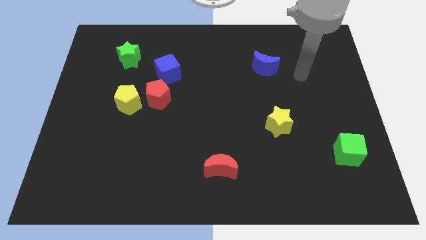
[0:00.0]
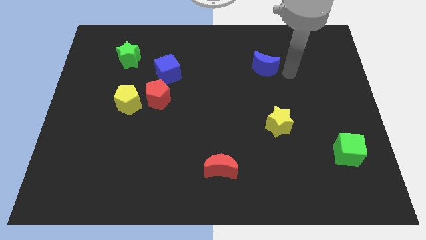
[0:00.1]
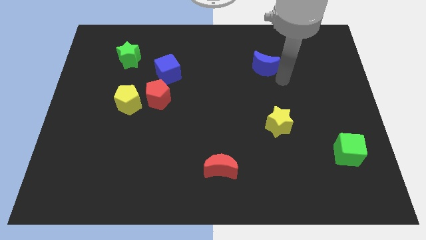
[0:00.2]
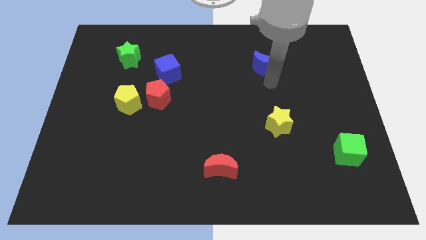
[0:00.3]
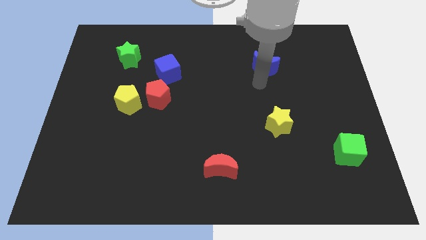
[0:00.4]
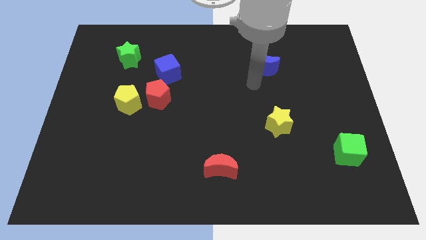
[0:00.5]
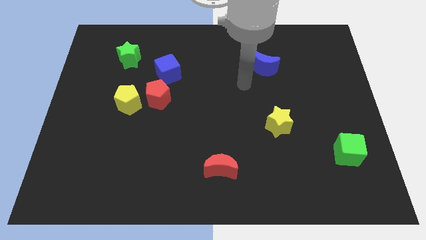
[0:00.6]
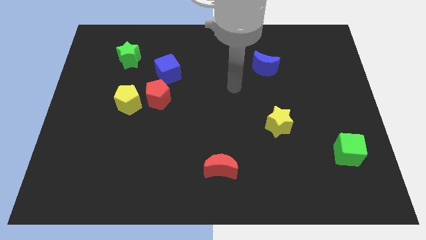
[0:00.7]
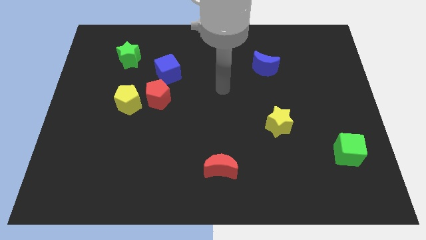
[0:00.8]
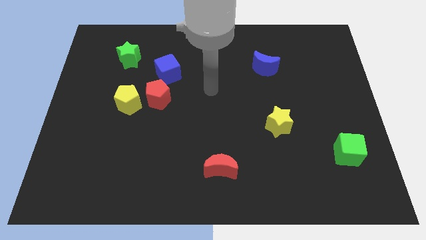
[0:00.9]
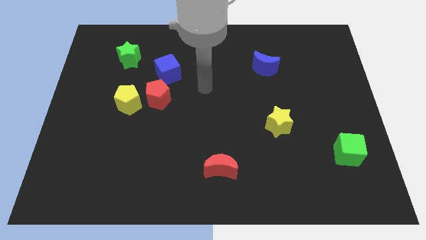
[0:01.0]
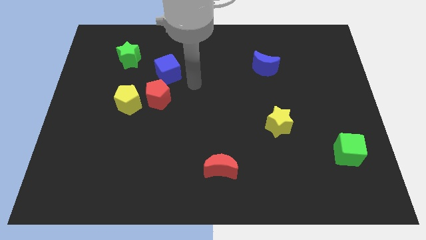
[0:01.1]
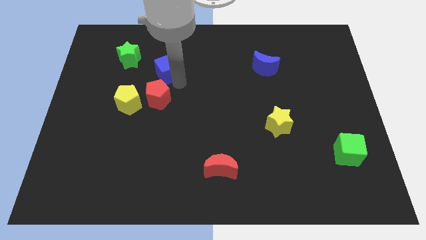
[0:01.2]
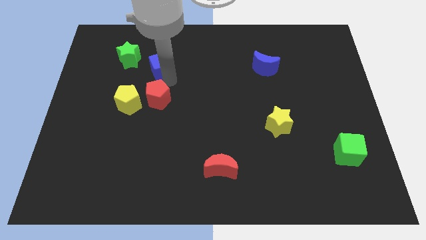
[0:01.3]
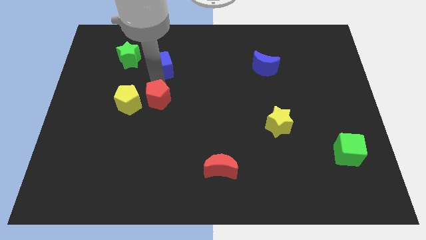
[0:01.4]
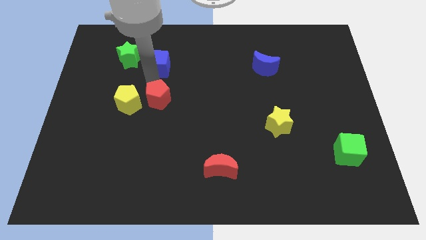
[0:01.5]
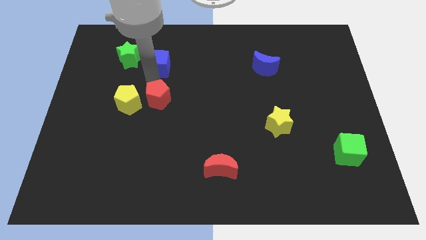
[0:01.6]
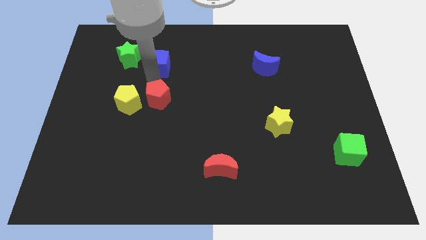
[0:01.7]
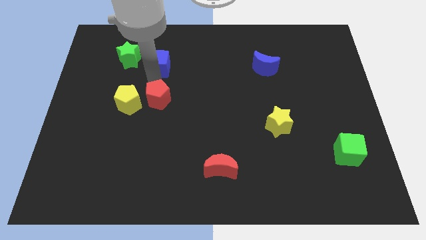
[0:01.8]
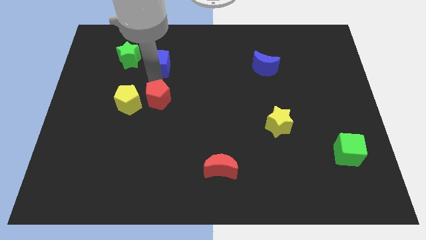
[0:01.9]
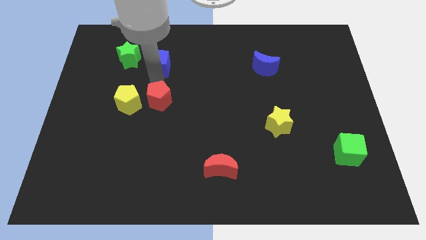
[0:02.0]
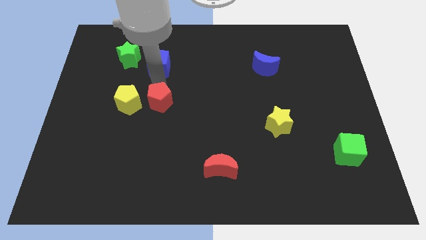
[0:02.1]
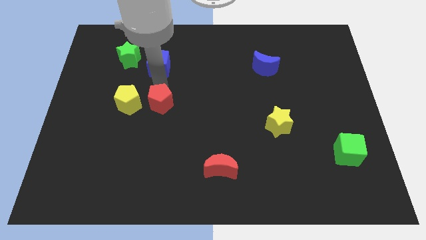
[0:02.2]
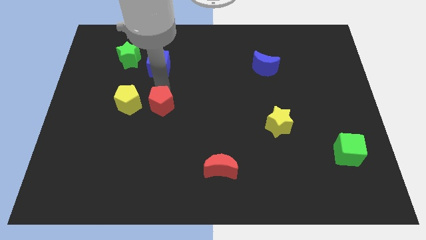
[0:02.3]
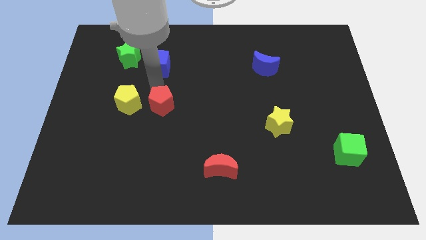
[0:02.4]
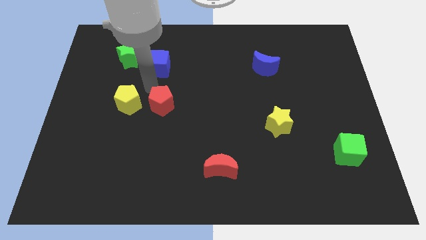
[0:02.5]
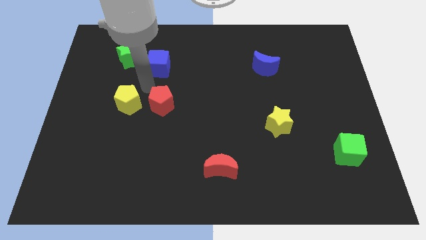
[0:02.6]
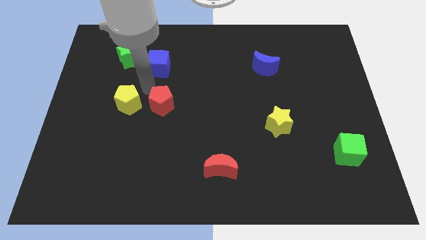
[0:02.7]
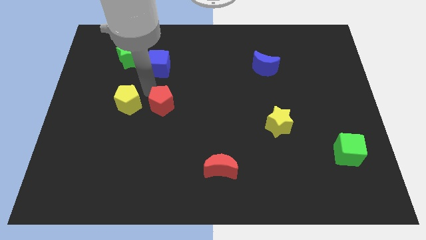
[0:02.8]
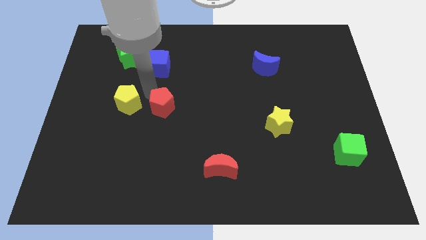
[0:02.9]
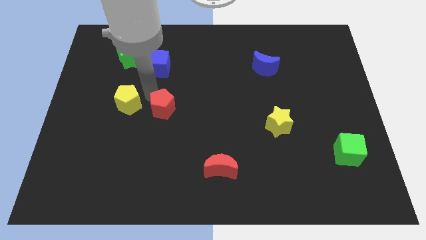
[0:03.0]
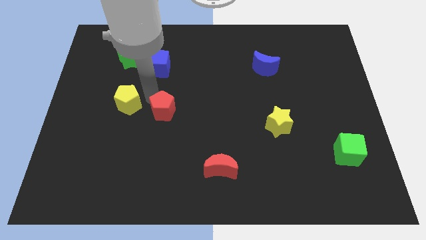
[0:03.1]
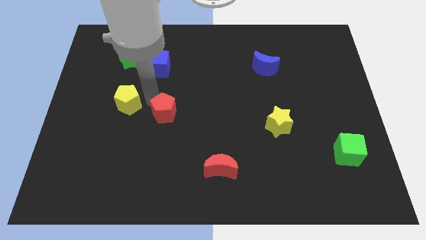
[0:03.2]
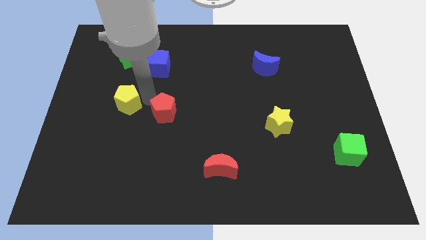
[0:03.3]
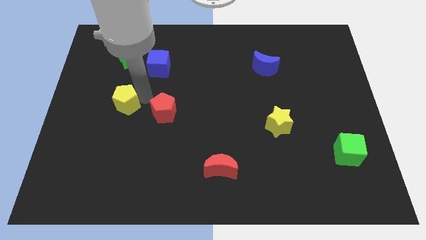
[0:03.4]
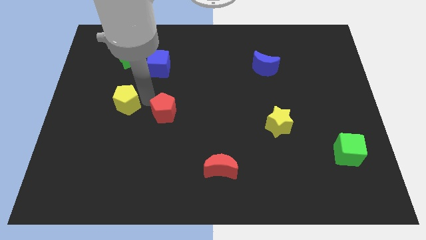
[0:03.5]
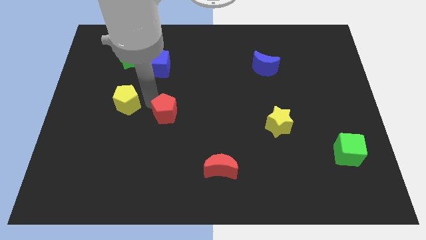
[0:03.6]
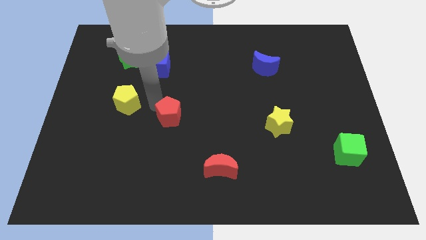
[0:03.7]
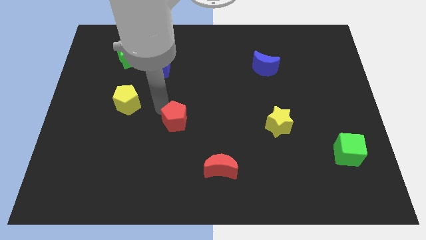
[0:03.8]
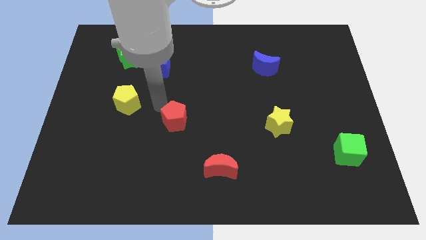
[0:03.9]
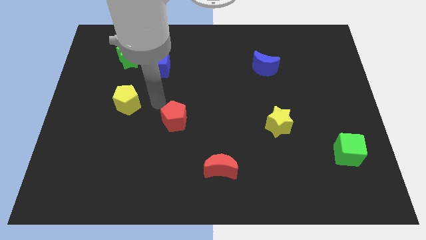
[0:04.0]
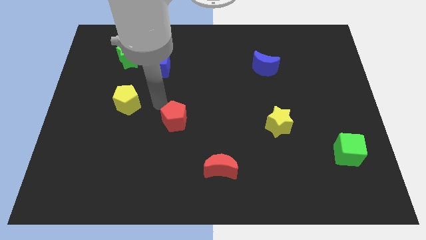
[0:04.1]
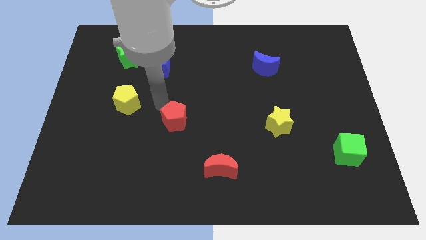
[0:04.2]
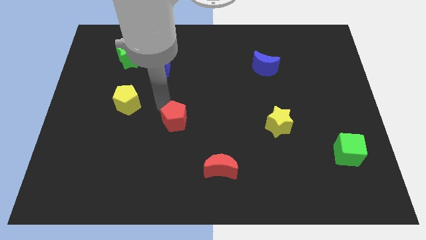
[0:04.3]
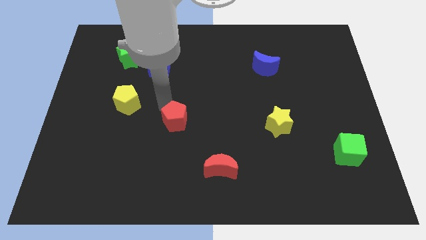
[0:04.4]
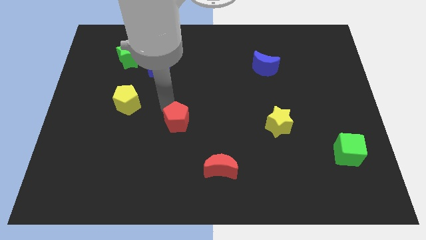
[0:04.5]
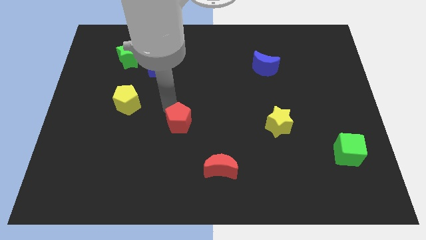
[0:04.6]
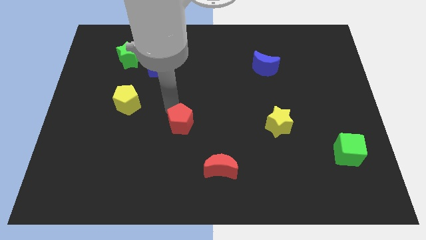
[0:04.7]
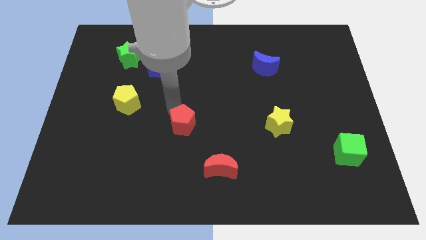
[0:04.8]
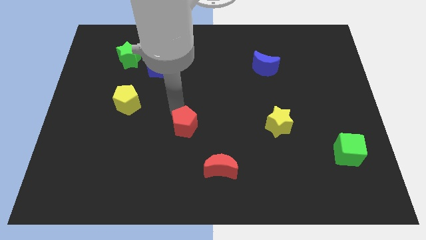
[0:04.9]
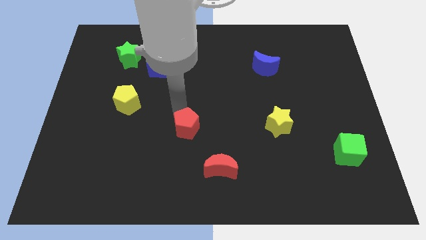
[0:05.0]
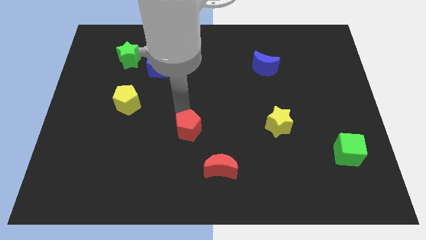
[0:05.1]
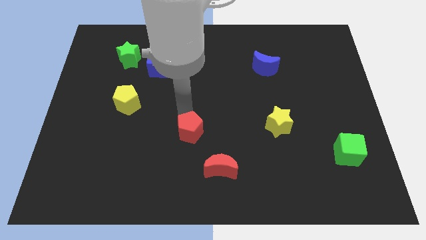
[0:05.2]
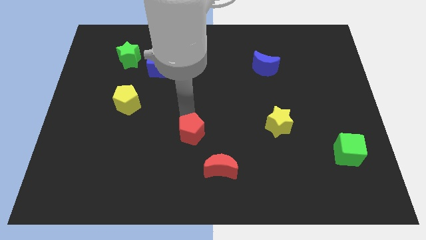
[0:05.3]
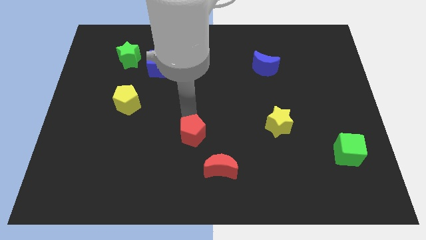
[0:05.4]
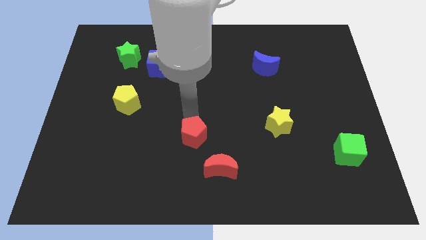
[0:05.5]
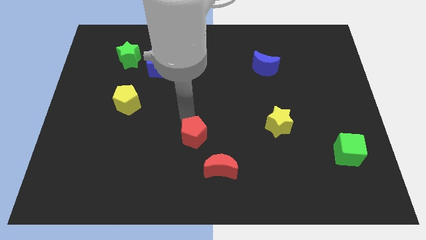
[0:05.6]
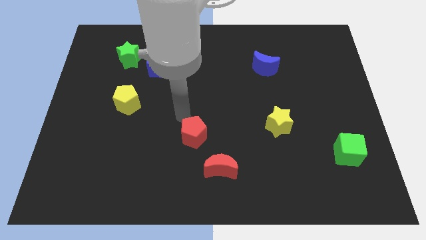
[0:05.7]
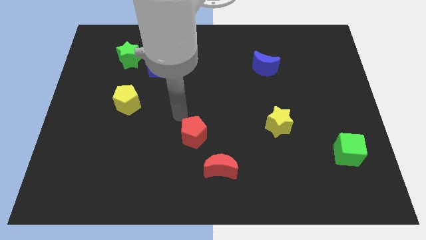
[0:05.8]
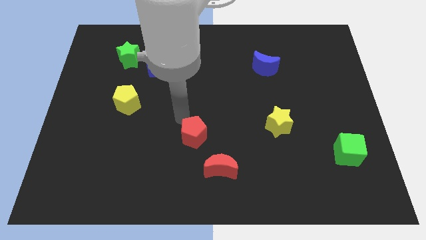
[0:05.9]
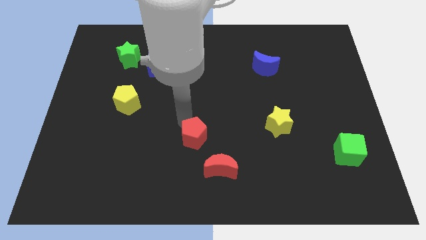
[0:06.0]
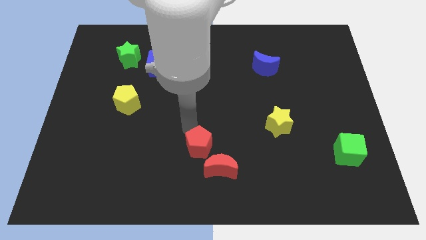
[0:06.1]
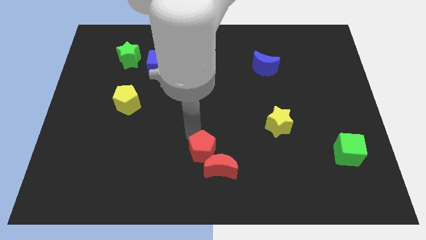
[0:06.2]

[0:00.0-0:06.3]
slide the red pentagon to the red moon

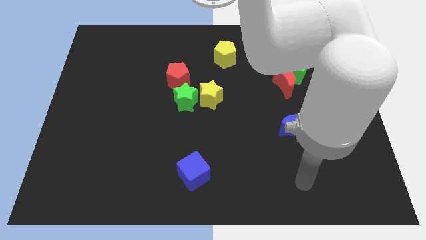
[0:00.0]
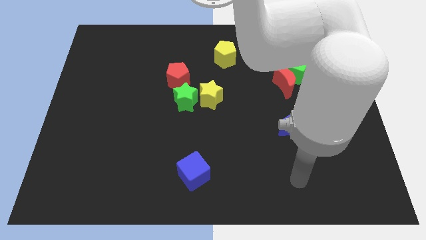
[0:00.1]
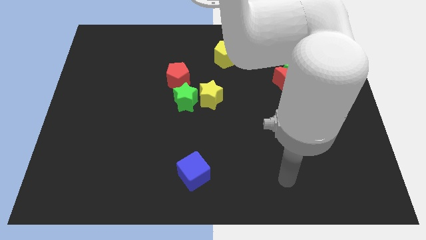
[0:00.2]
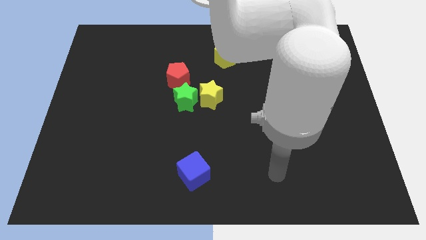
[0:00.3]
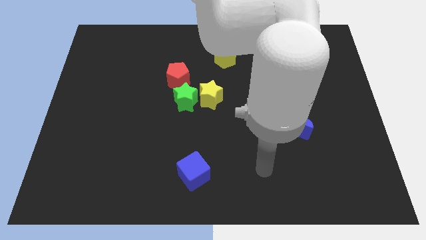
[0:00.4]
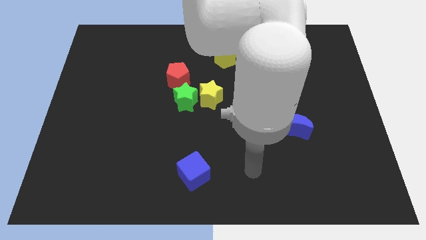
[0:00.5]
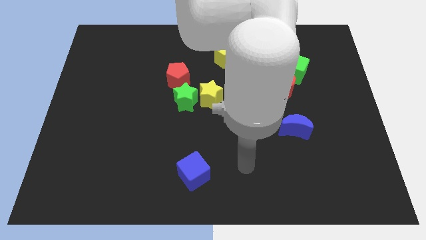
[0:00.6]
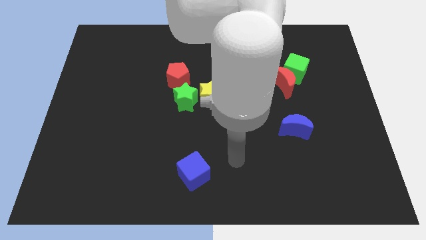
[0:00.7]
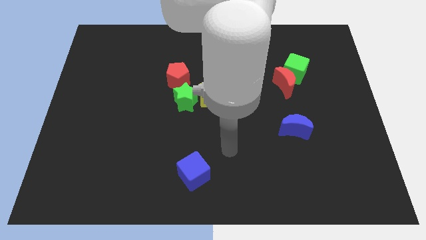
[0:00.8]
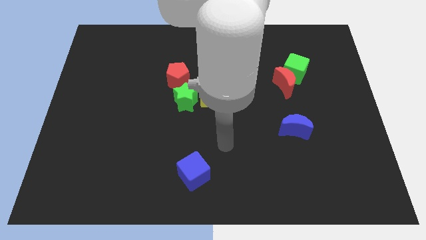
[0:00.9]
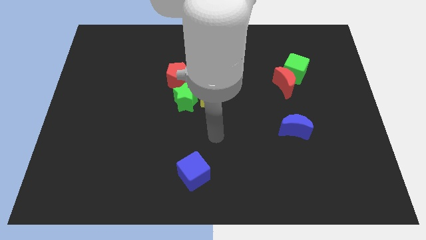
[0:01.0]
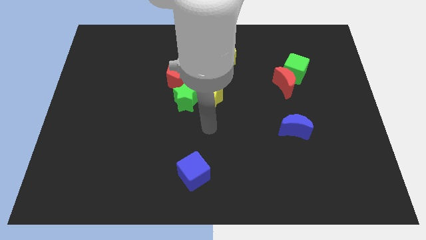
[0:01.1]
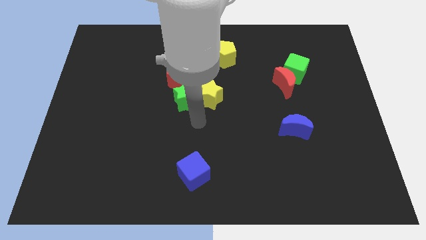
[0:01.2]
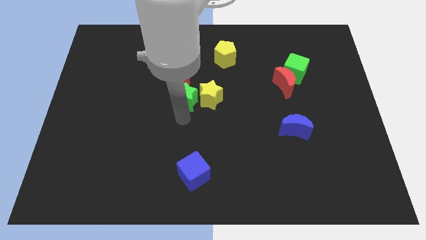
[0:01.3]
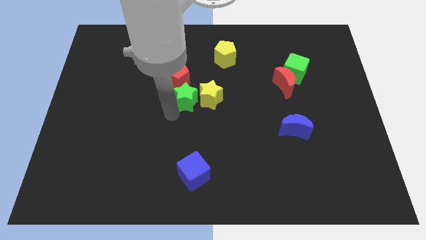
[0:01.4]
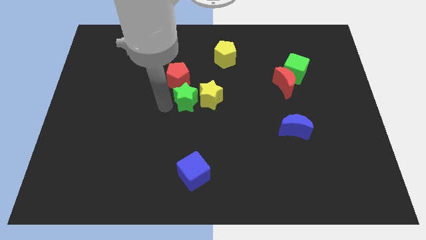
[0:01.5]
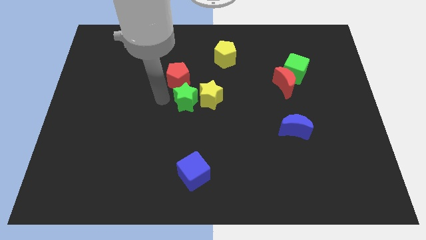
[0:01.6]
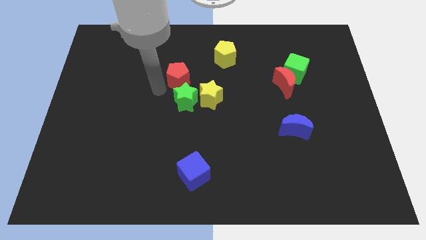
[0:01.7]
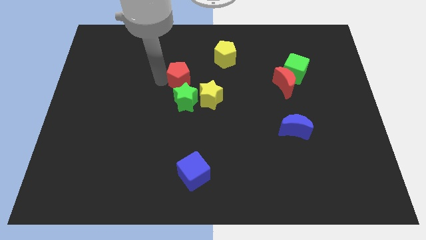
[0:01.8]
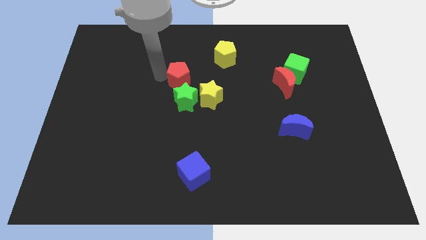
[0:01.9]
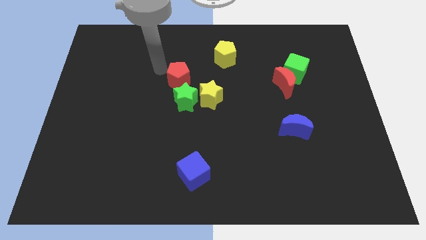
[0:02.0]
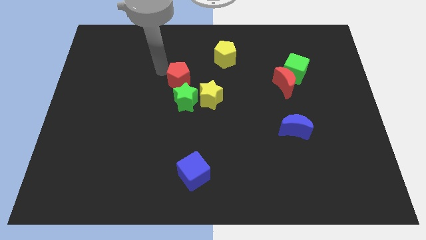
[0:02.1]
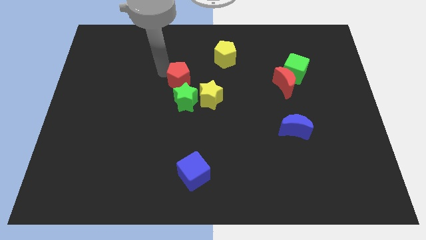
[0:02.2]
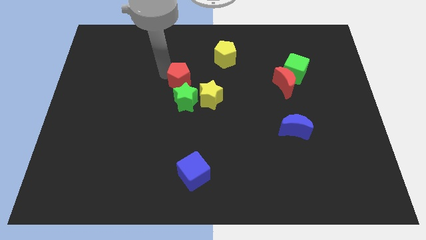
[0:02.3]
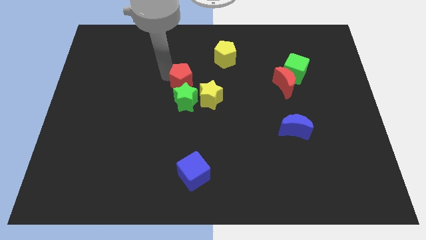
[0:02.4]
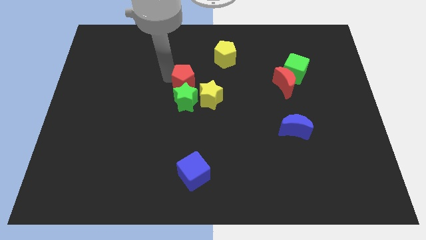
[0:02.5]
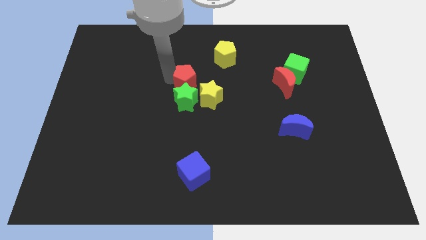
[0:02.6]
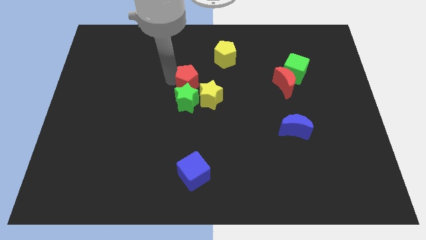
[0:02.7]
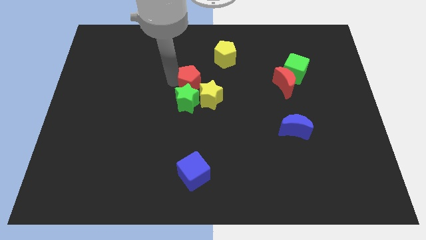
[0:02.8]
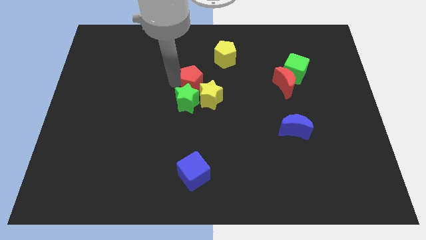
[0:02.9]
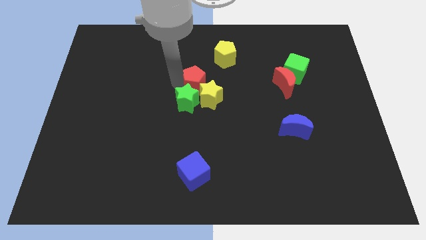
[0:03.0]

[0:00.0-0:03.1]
move the red pentagon to the yellow star
